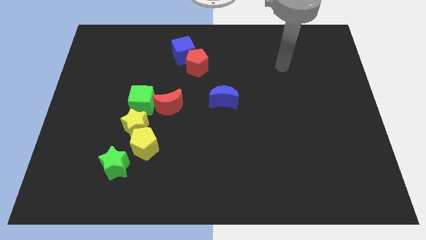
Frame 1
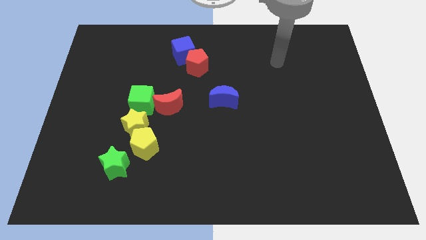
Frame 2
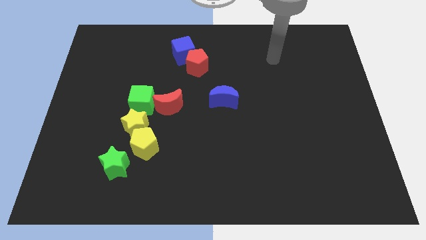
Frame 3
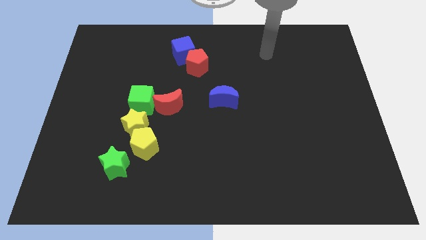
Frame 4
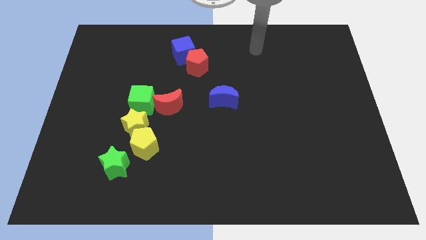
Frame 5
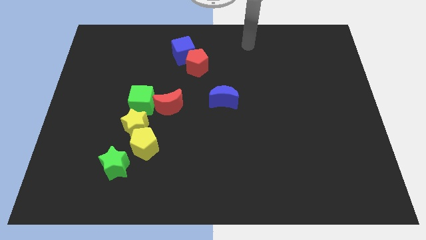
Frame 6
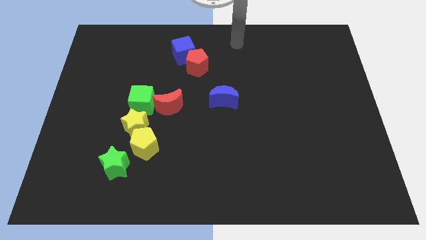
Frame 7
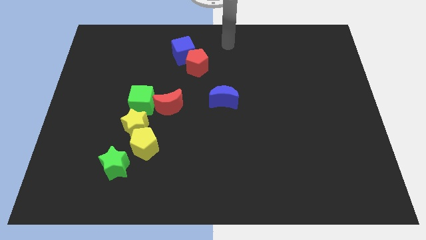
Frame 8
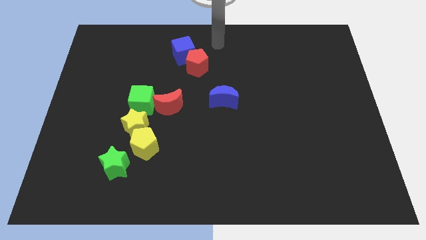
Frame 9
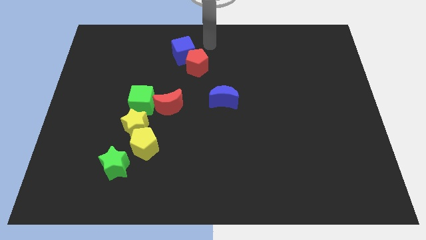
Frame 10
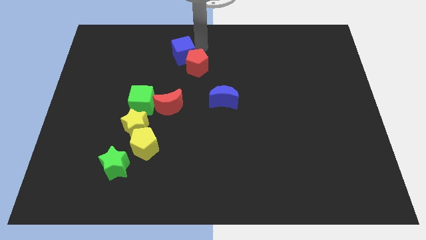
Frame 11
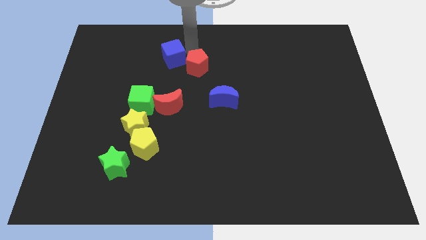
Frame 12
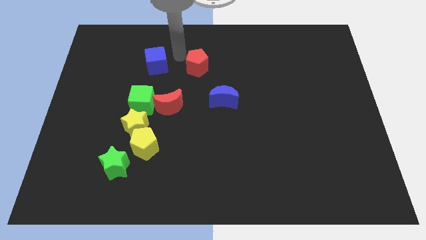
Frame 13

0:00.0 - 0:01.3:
pull the red pentagon apart from the blue cube

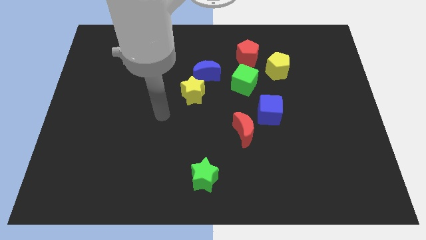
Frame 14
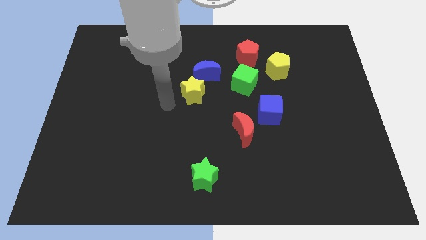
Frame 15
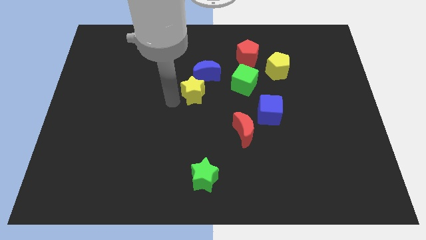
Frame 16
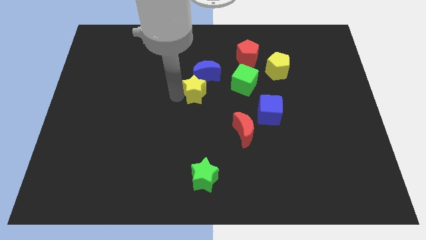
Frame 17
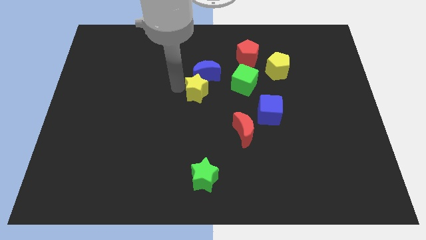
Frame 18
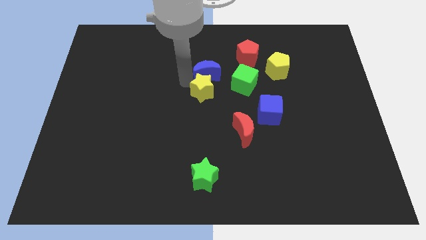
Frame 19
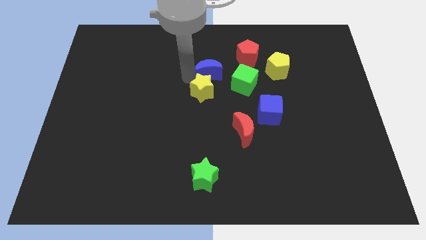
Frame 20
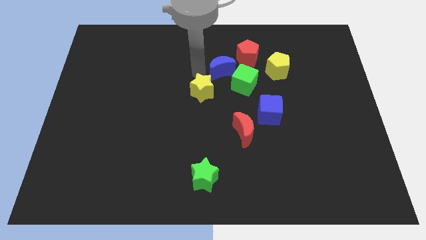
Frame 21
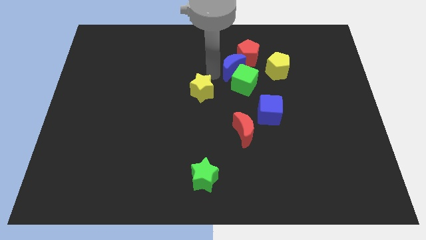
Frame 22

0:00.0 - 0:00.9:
move the yellow star away from the blue moon

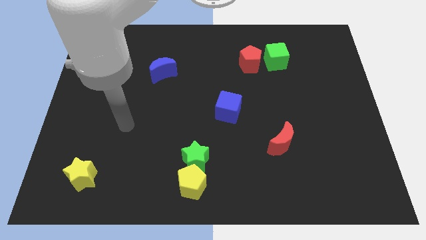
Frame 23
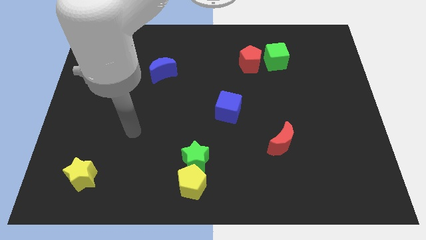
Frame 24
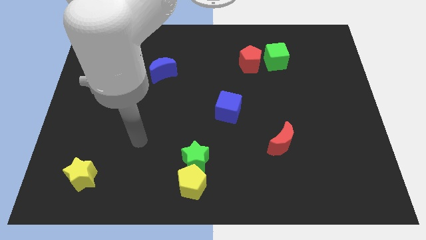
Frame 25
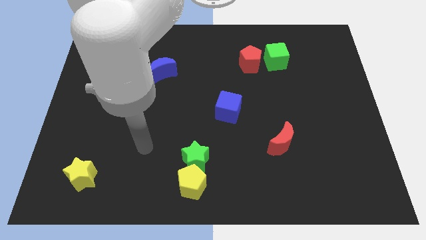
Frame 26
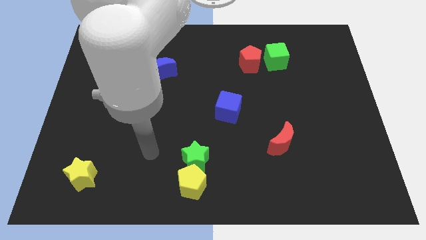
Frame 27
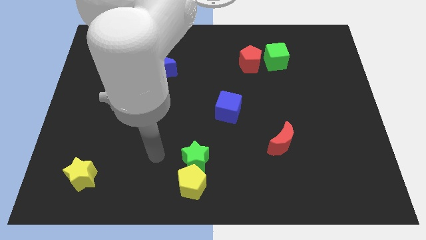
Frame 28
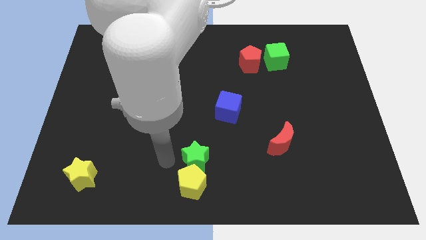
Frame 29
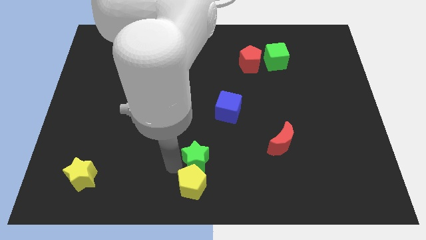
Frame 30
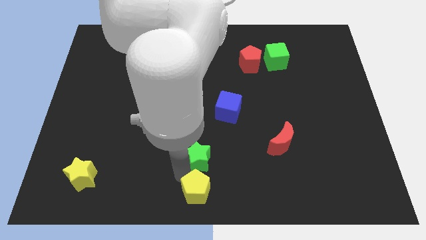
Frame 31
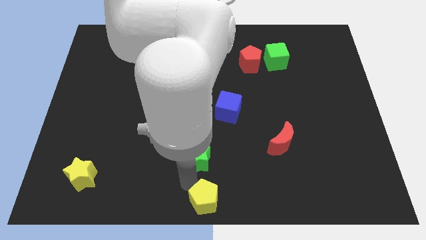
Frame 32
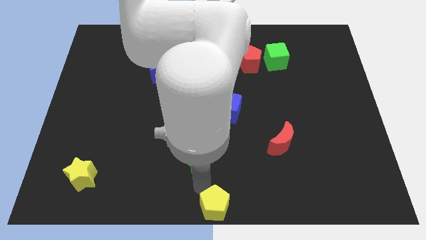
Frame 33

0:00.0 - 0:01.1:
separate the green star from the yellow pentagon

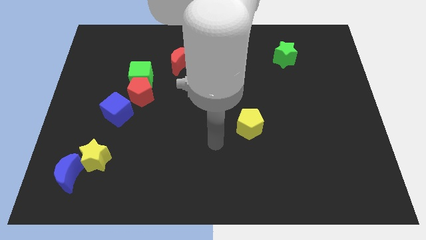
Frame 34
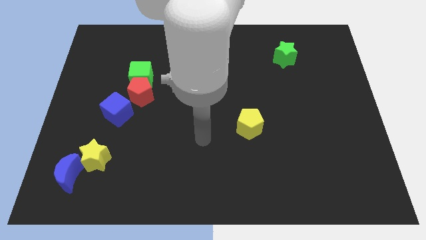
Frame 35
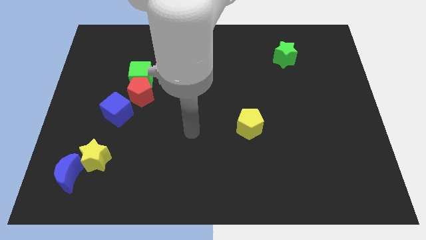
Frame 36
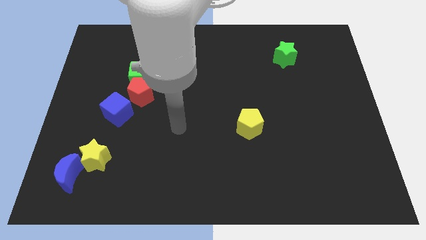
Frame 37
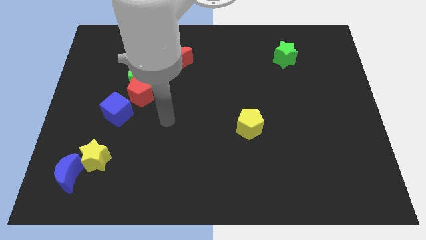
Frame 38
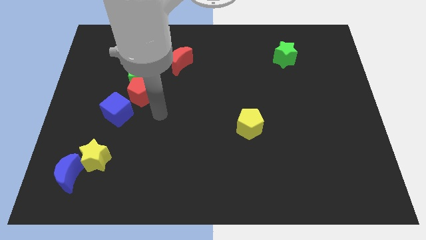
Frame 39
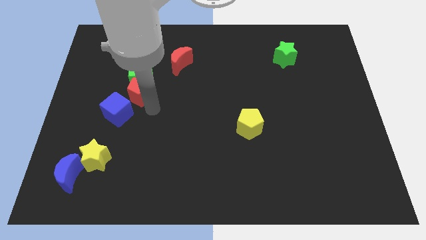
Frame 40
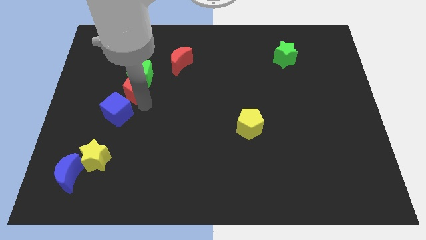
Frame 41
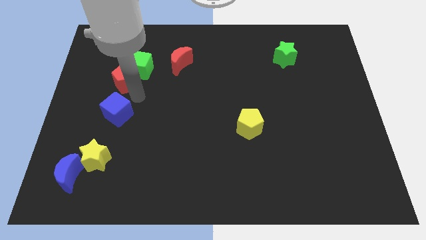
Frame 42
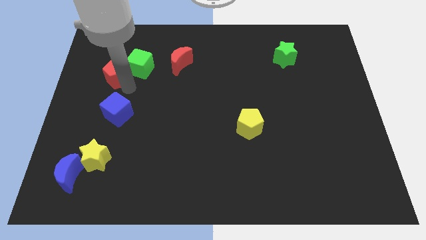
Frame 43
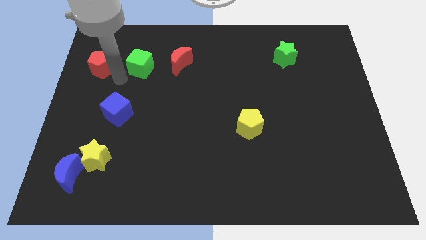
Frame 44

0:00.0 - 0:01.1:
pull the green cube apart from the red pentagon

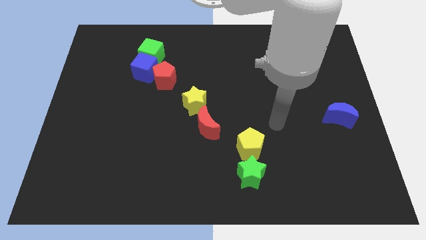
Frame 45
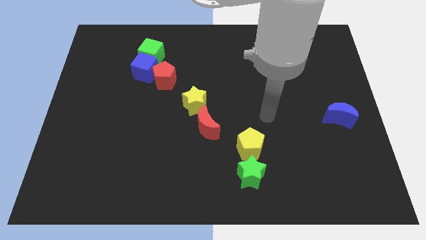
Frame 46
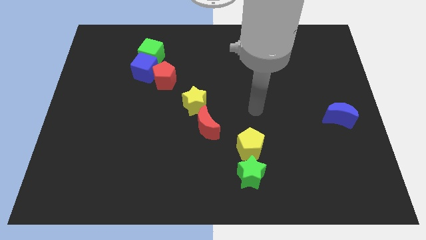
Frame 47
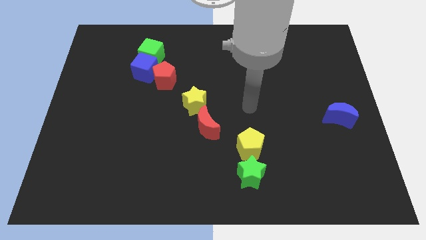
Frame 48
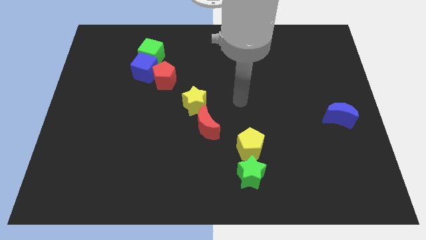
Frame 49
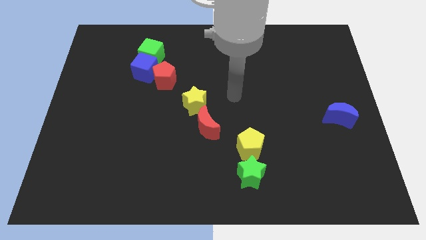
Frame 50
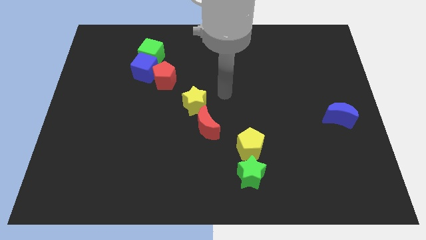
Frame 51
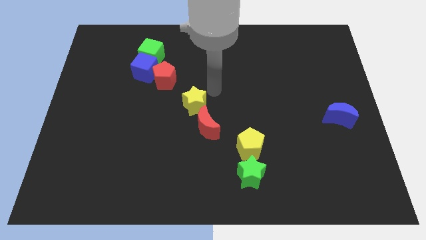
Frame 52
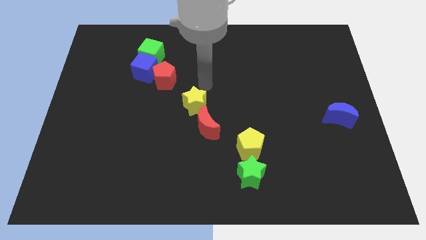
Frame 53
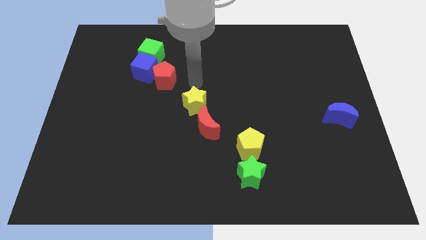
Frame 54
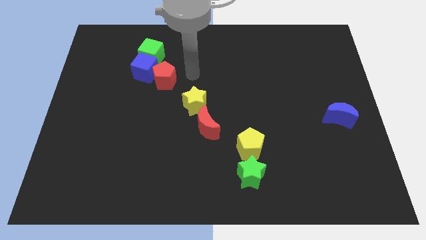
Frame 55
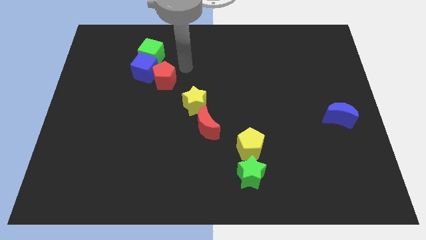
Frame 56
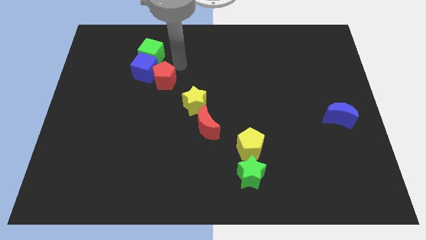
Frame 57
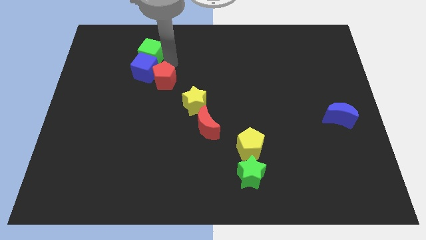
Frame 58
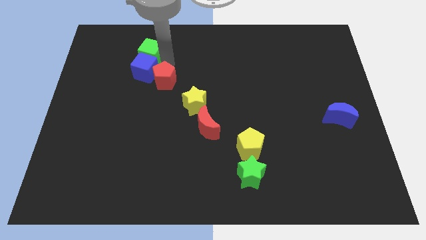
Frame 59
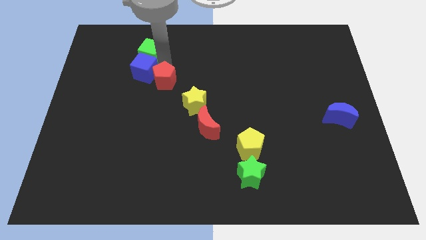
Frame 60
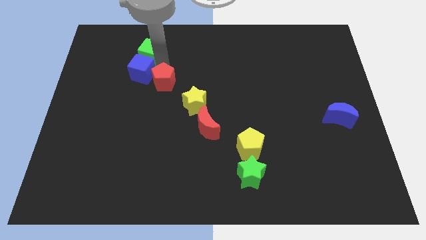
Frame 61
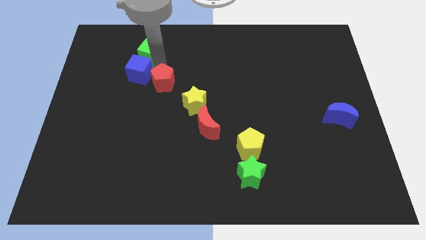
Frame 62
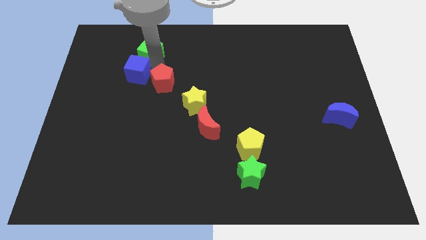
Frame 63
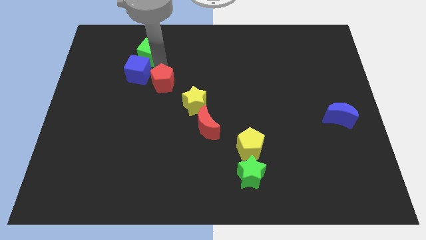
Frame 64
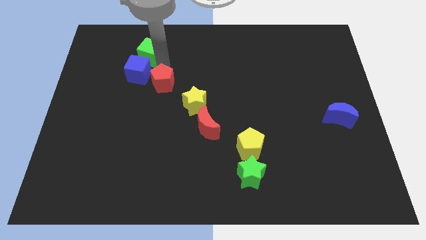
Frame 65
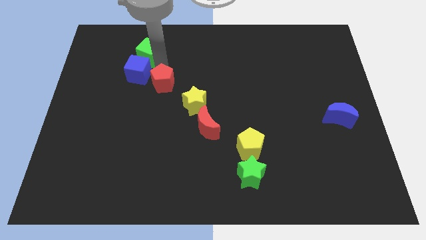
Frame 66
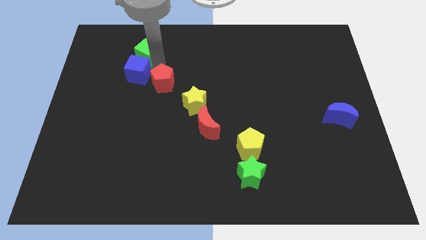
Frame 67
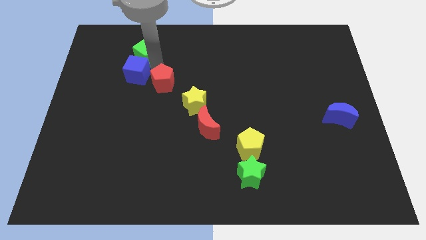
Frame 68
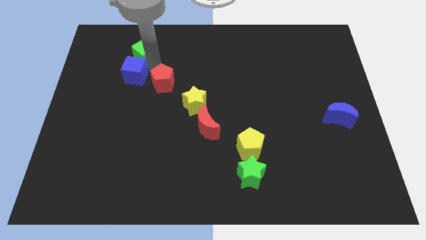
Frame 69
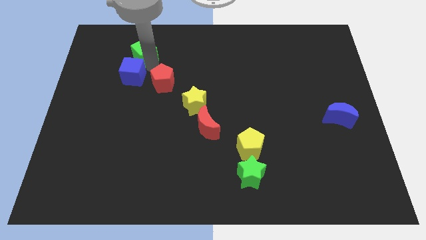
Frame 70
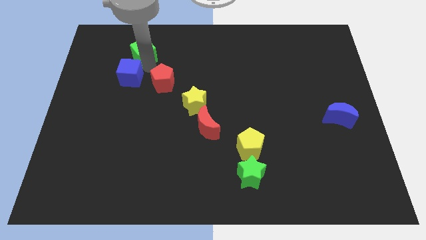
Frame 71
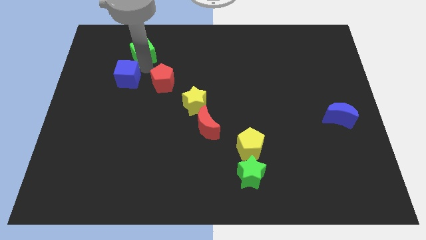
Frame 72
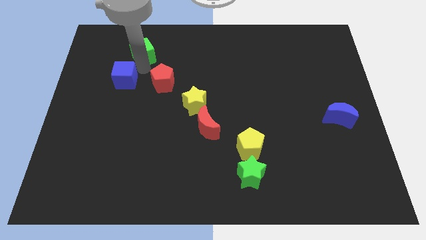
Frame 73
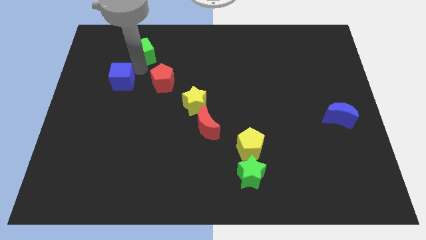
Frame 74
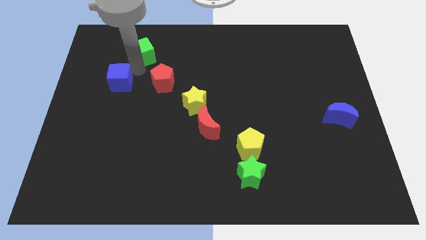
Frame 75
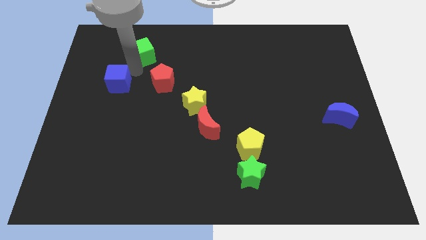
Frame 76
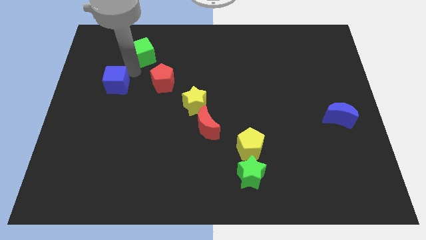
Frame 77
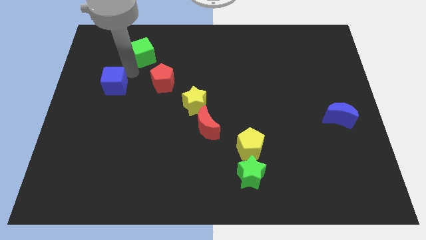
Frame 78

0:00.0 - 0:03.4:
separate the blue cube from the green cube and red pentagon

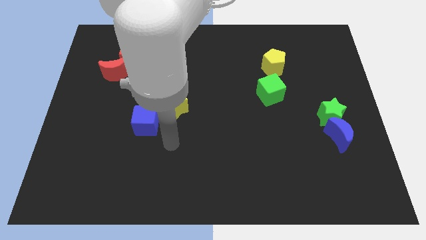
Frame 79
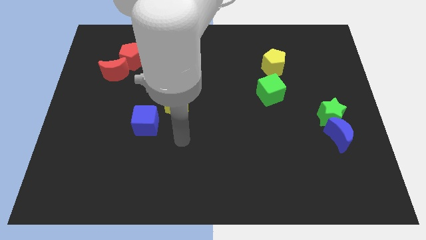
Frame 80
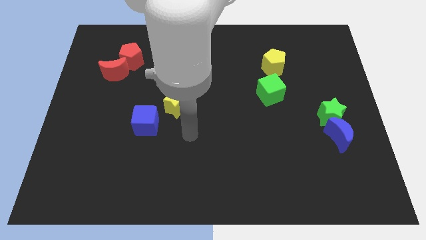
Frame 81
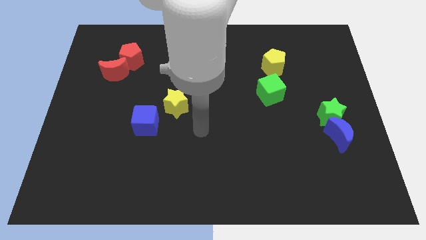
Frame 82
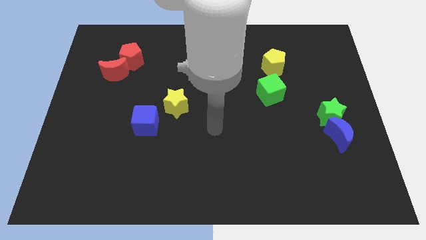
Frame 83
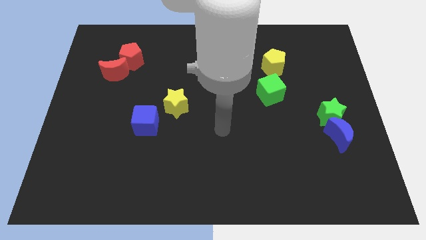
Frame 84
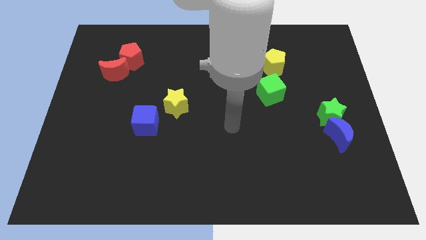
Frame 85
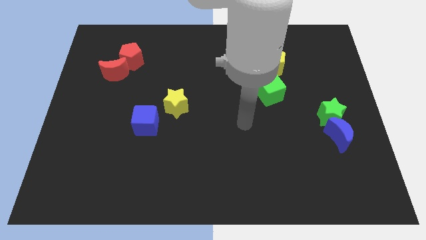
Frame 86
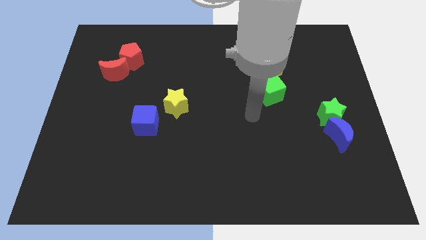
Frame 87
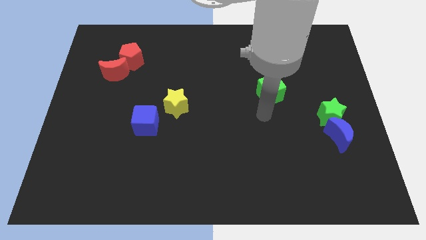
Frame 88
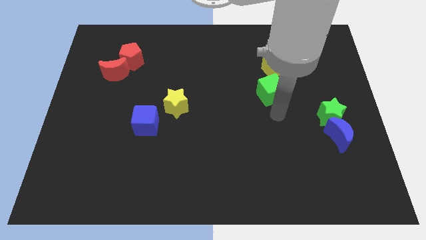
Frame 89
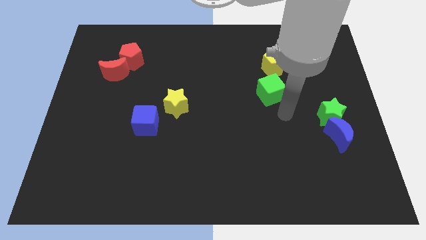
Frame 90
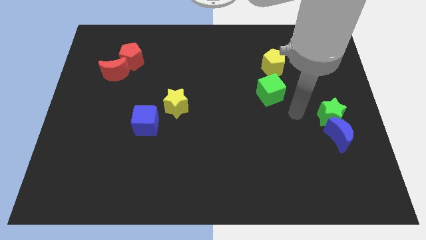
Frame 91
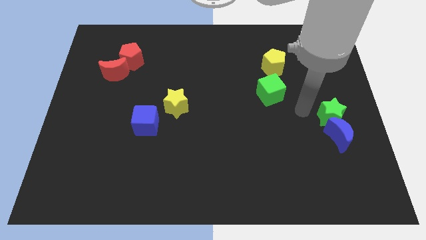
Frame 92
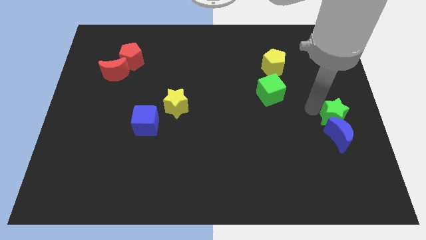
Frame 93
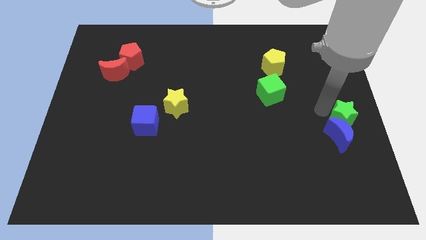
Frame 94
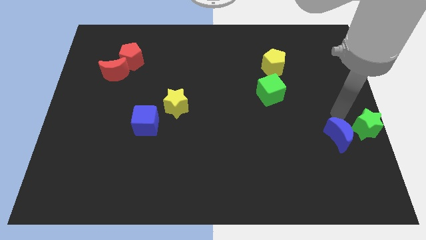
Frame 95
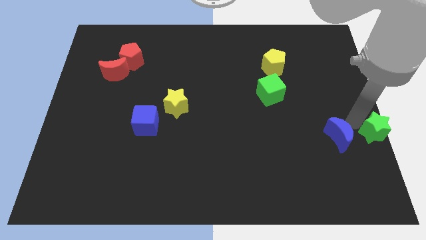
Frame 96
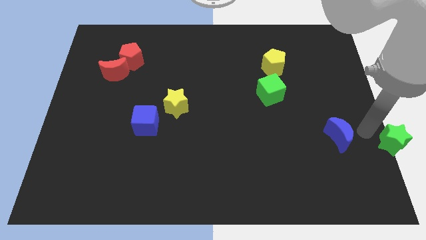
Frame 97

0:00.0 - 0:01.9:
pull the blue moon apart from the green star
